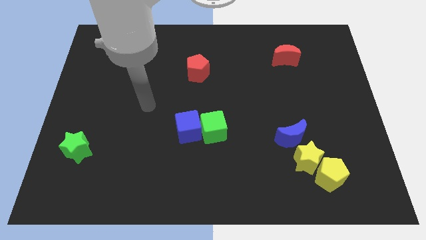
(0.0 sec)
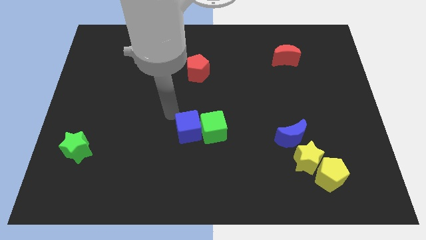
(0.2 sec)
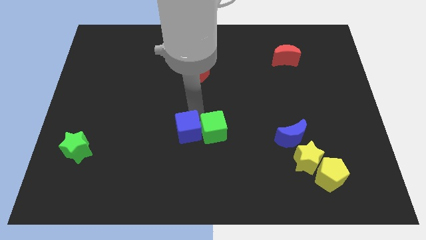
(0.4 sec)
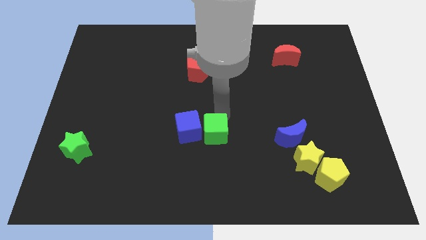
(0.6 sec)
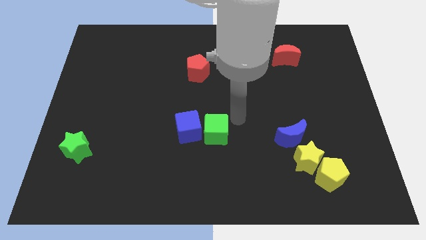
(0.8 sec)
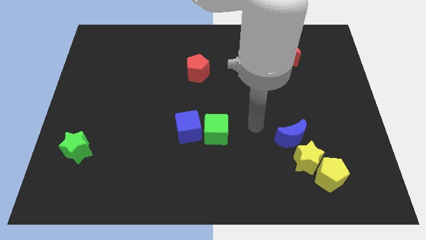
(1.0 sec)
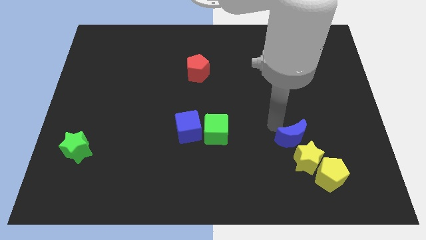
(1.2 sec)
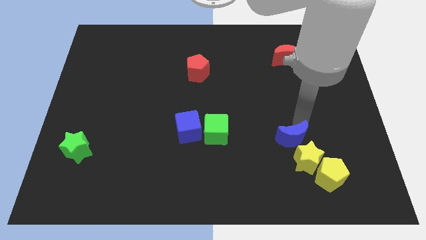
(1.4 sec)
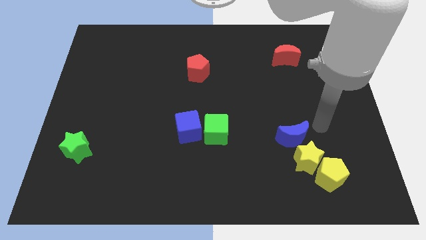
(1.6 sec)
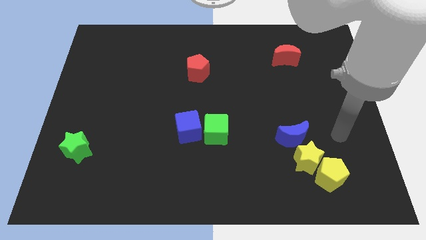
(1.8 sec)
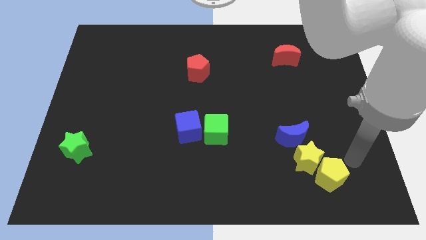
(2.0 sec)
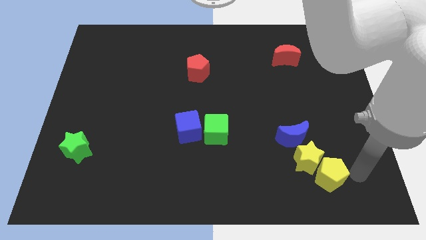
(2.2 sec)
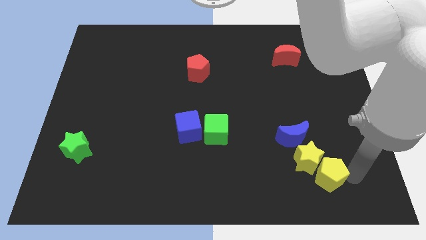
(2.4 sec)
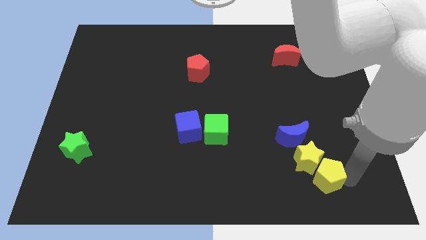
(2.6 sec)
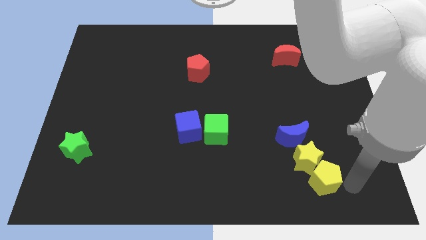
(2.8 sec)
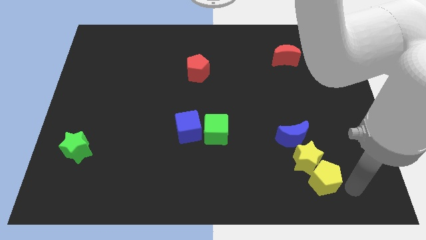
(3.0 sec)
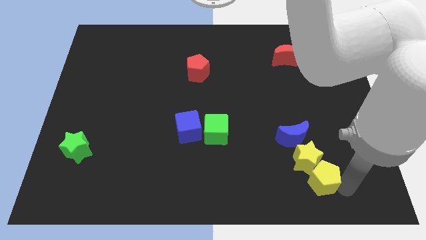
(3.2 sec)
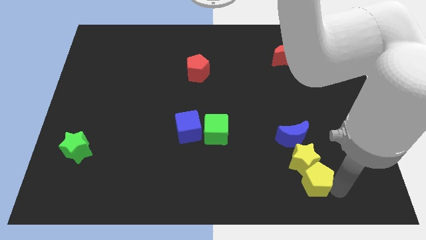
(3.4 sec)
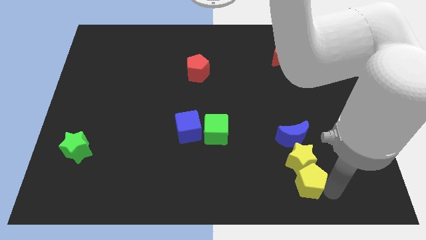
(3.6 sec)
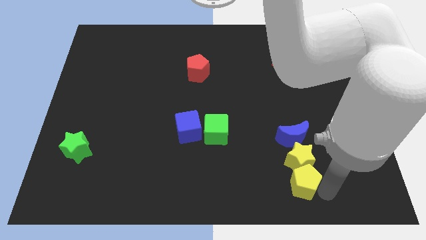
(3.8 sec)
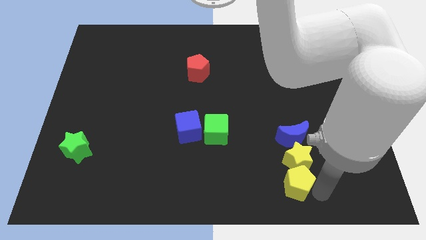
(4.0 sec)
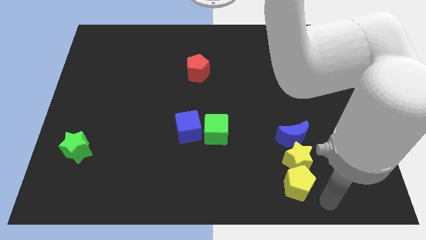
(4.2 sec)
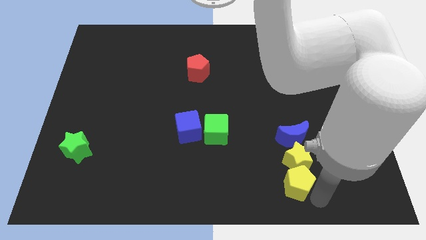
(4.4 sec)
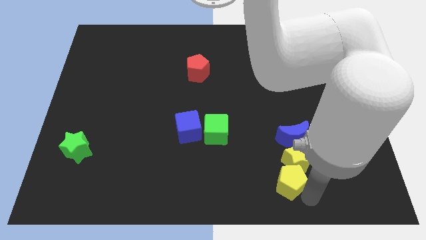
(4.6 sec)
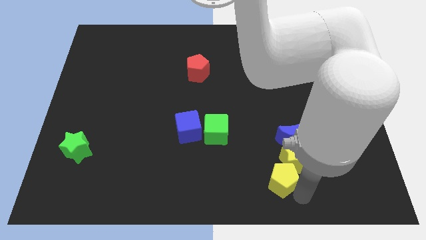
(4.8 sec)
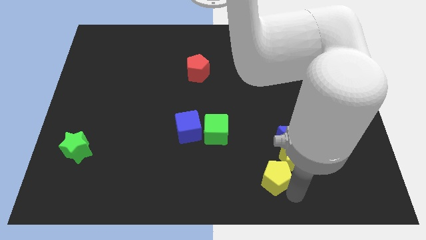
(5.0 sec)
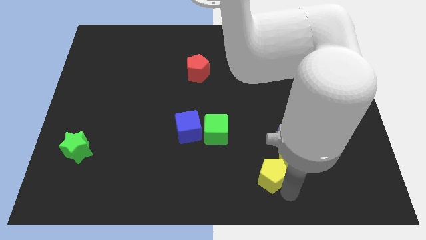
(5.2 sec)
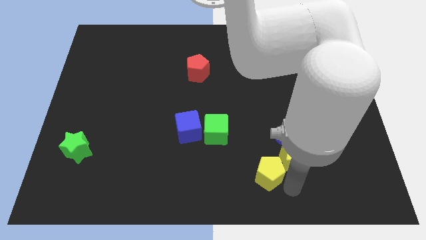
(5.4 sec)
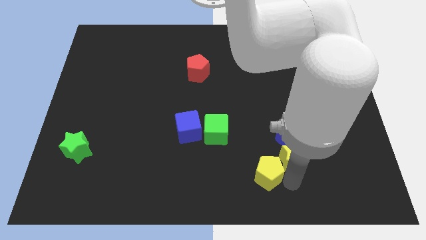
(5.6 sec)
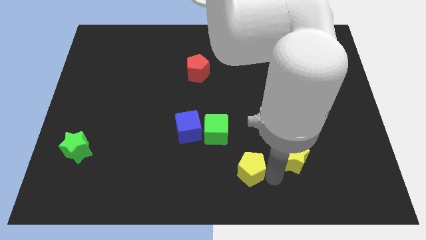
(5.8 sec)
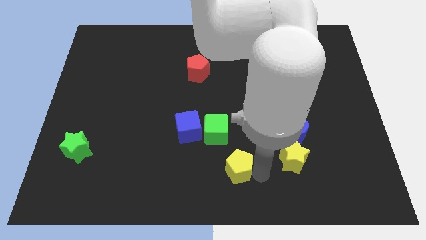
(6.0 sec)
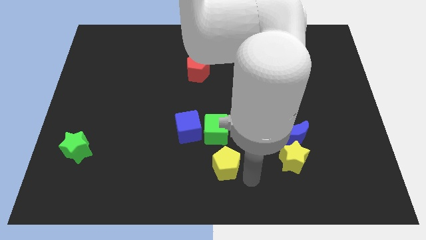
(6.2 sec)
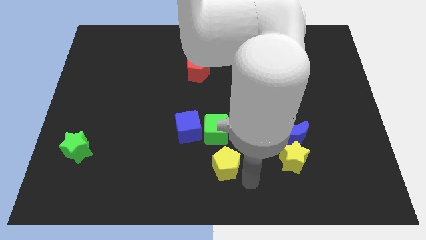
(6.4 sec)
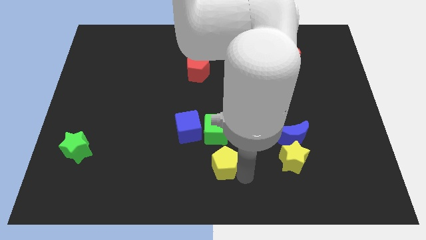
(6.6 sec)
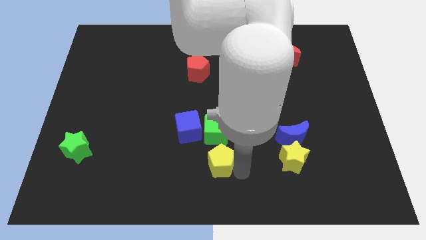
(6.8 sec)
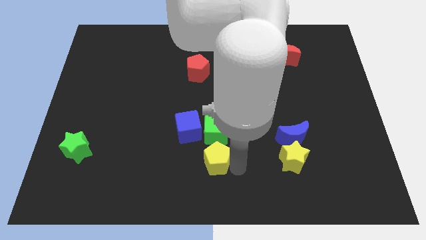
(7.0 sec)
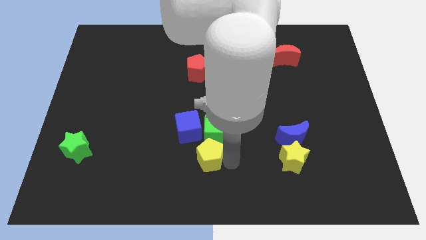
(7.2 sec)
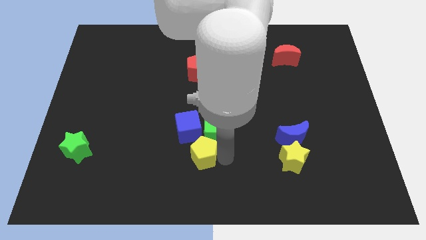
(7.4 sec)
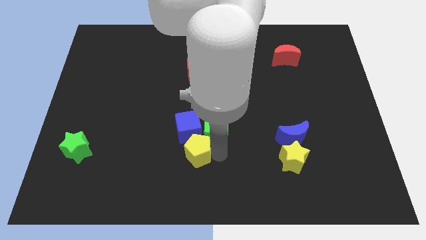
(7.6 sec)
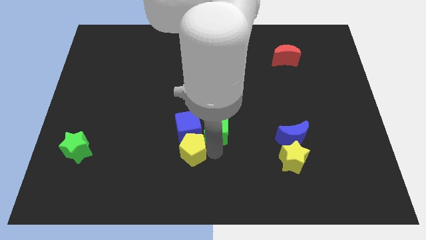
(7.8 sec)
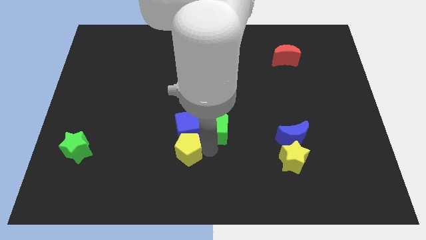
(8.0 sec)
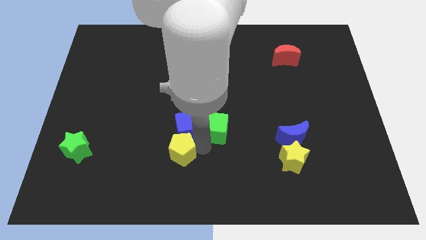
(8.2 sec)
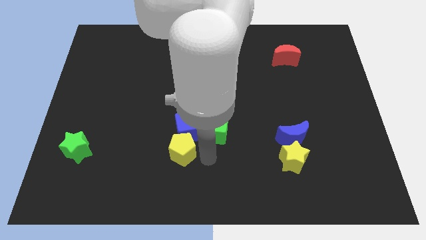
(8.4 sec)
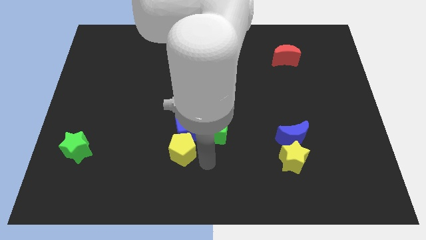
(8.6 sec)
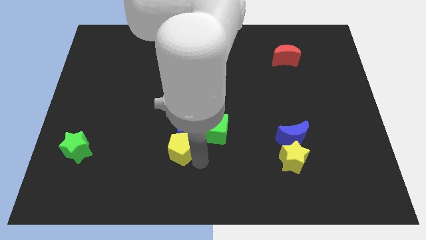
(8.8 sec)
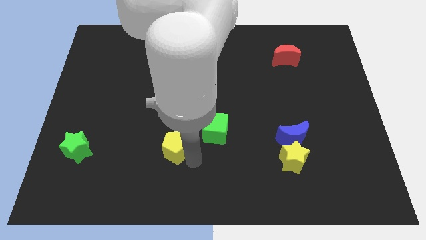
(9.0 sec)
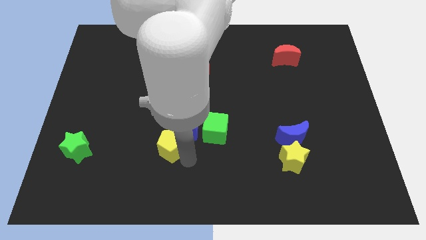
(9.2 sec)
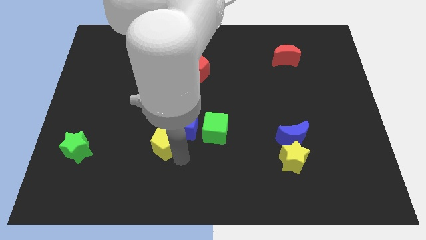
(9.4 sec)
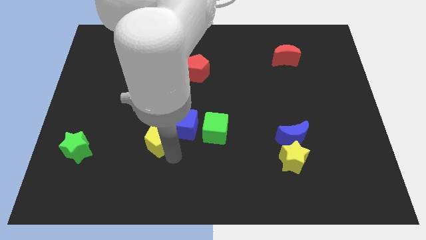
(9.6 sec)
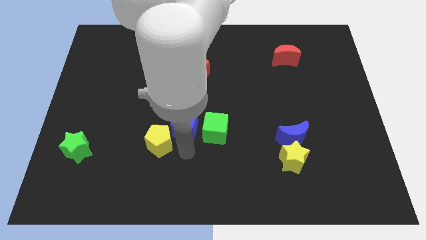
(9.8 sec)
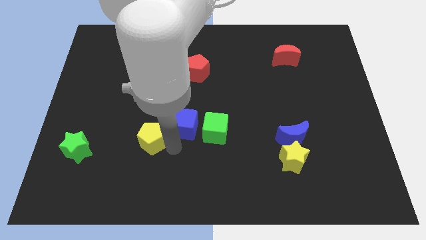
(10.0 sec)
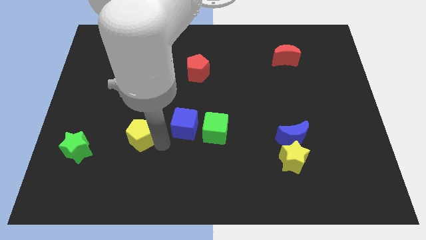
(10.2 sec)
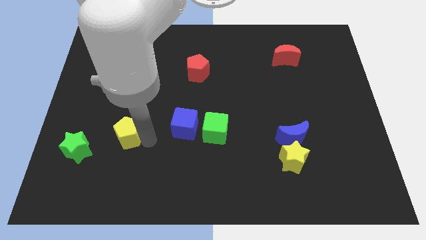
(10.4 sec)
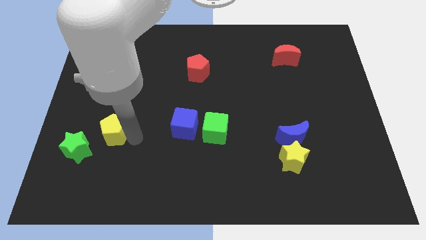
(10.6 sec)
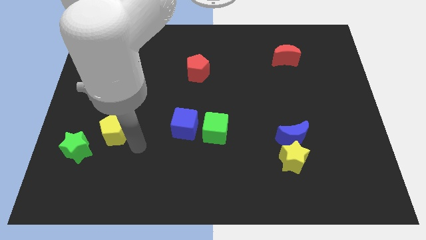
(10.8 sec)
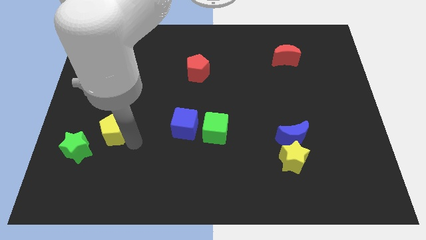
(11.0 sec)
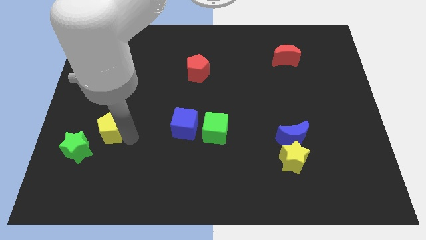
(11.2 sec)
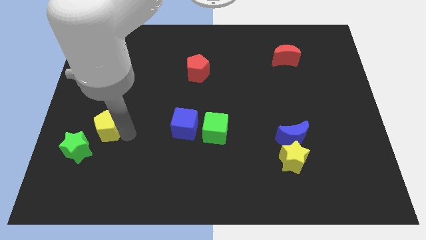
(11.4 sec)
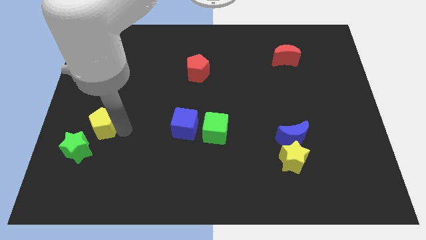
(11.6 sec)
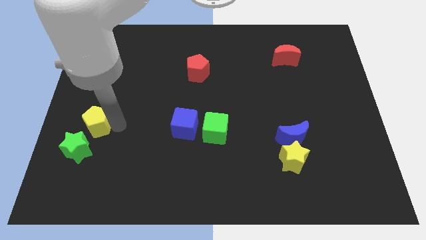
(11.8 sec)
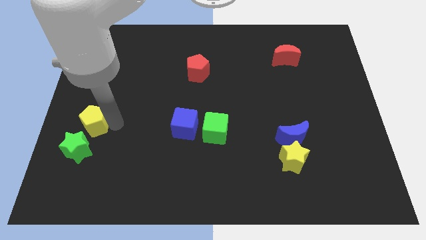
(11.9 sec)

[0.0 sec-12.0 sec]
push the yellow pentagon to the left side of the board

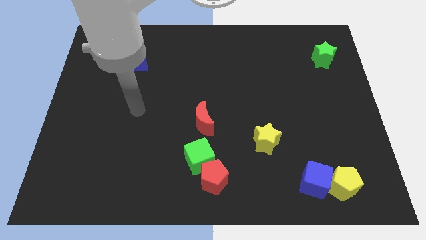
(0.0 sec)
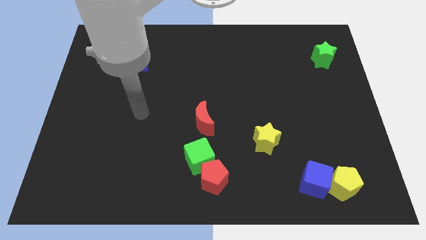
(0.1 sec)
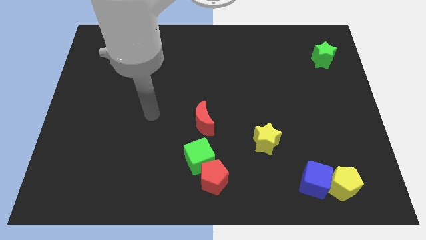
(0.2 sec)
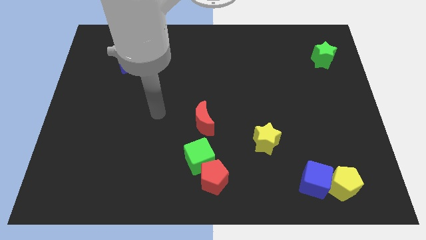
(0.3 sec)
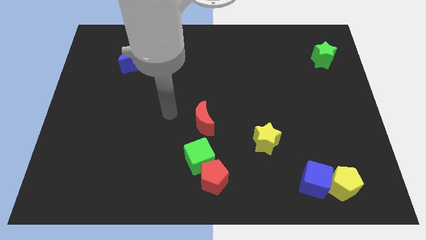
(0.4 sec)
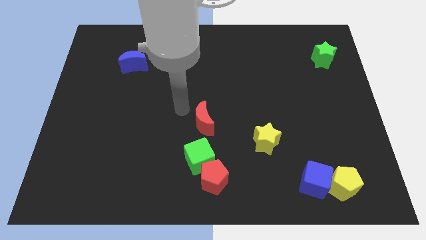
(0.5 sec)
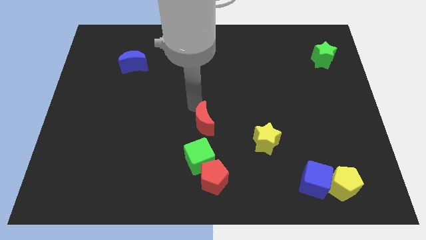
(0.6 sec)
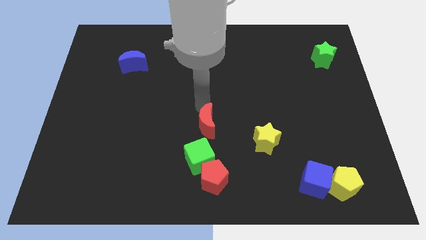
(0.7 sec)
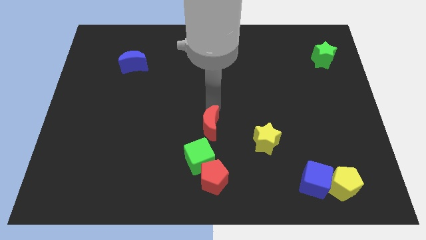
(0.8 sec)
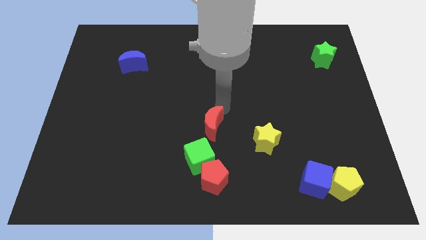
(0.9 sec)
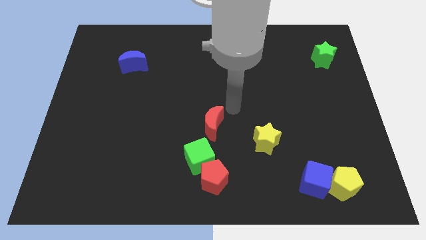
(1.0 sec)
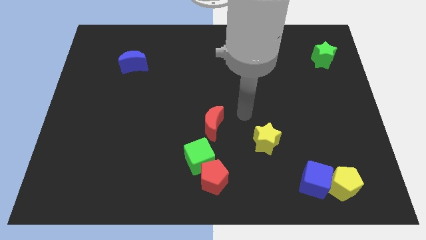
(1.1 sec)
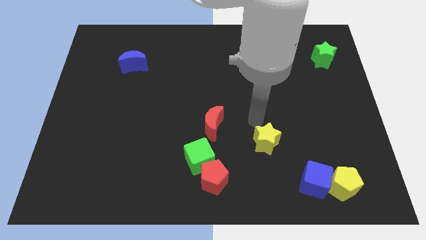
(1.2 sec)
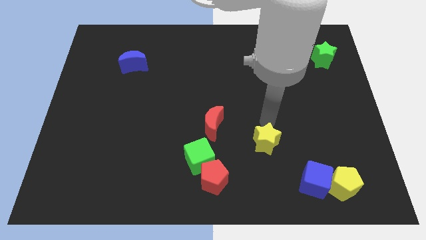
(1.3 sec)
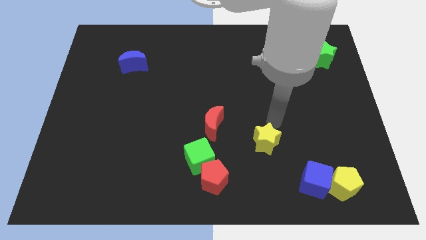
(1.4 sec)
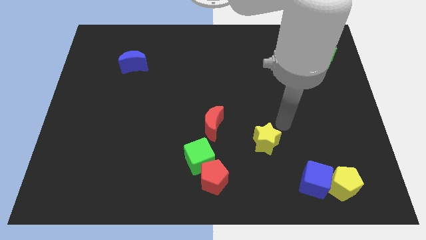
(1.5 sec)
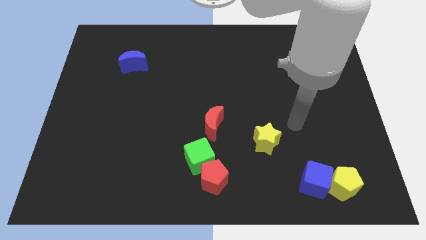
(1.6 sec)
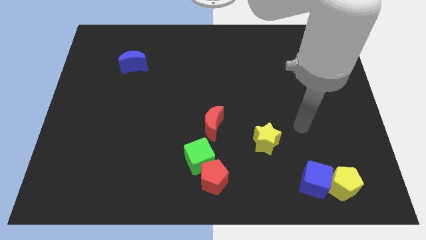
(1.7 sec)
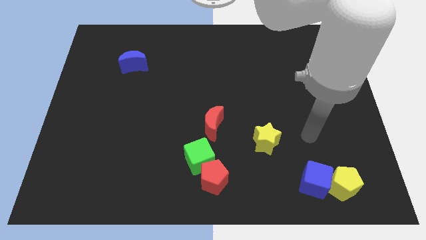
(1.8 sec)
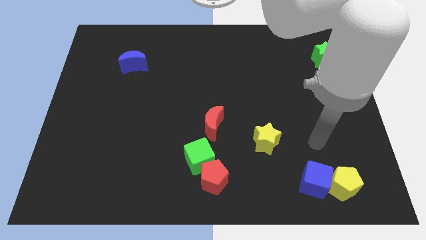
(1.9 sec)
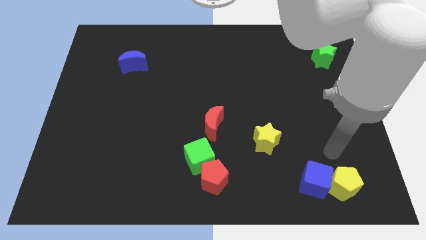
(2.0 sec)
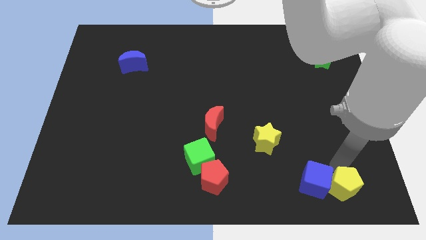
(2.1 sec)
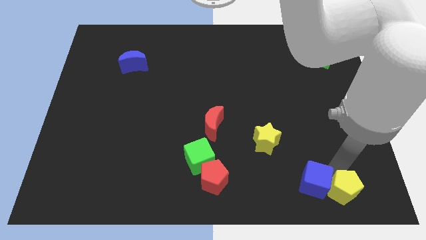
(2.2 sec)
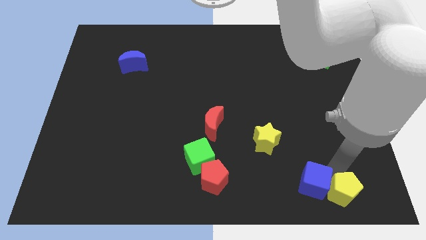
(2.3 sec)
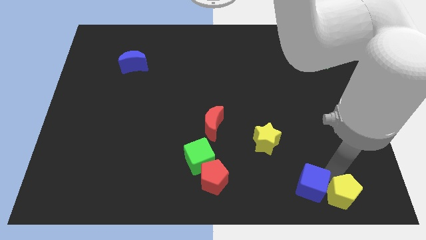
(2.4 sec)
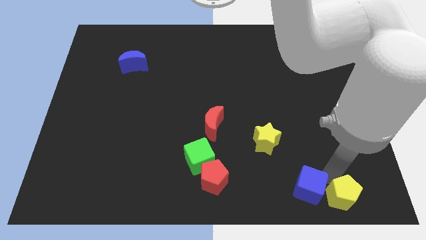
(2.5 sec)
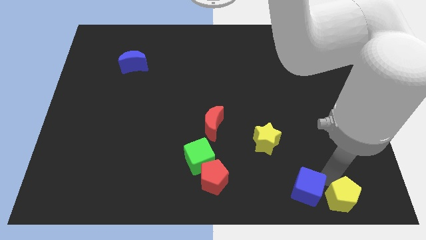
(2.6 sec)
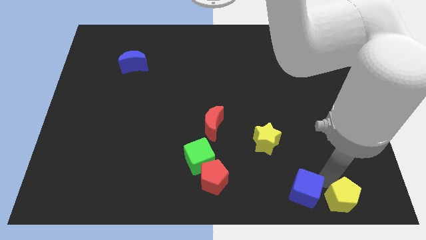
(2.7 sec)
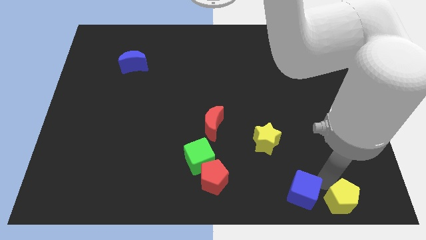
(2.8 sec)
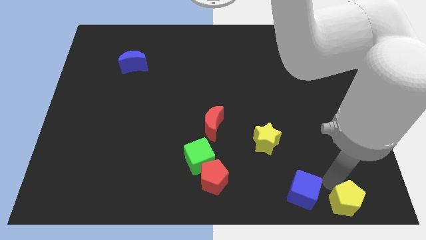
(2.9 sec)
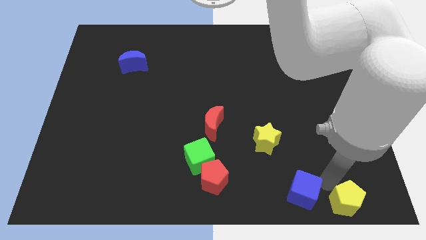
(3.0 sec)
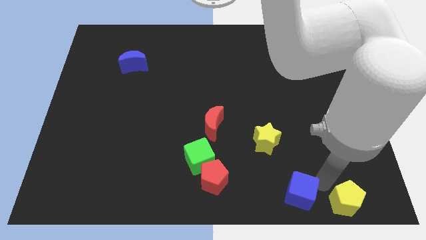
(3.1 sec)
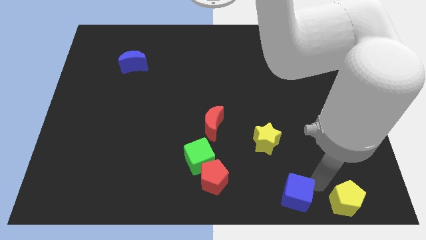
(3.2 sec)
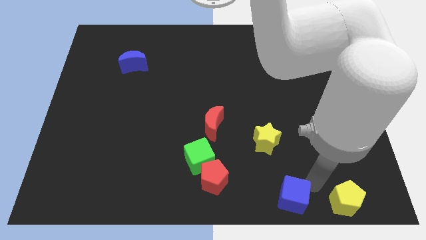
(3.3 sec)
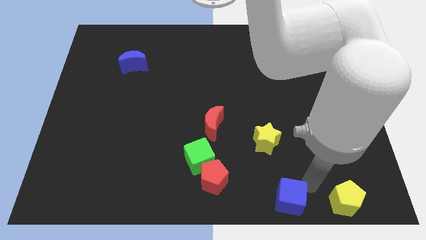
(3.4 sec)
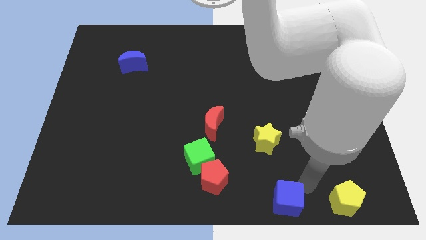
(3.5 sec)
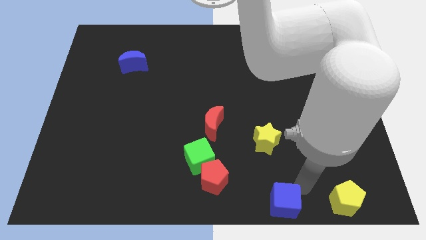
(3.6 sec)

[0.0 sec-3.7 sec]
put the blue cube to the bottom
